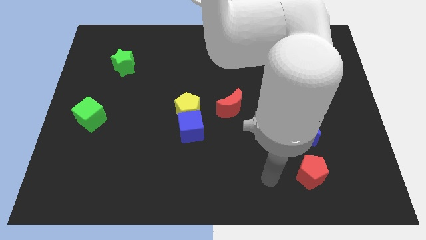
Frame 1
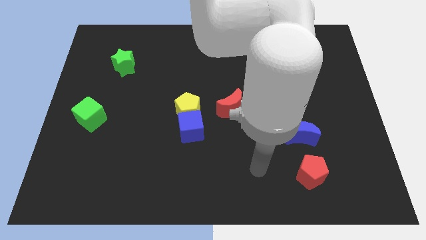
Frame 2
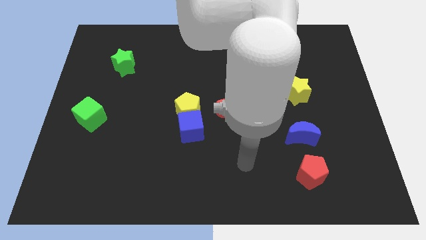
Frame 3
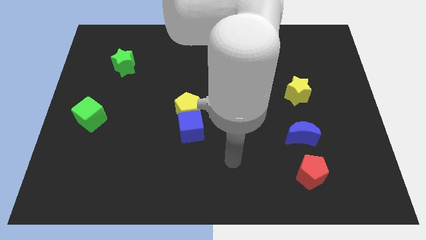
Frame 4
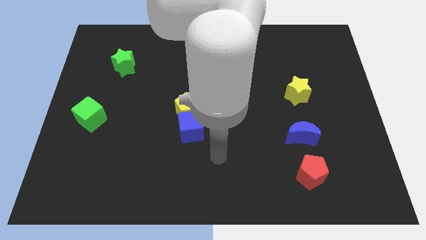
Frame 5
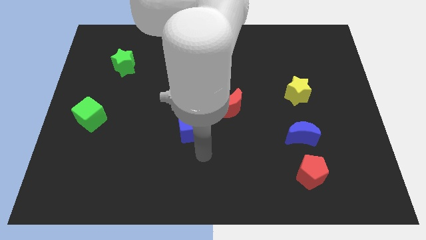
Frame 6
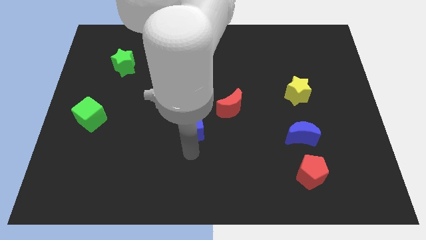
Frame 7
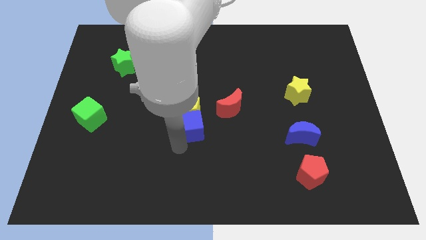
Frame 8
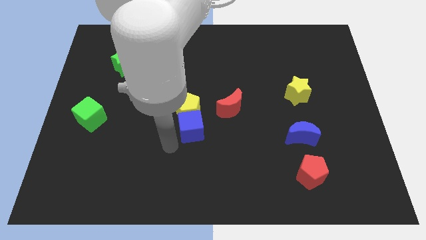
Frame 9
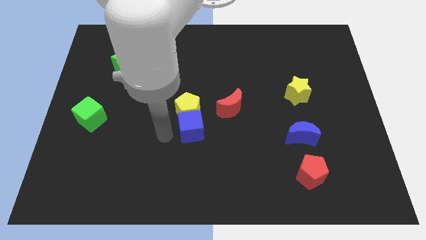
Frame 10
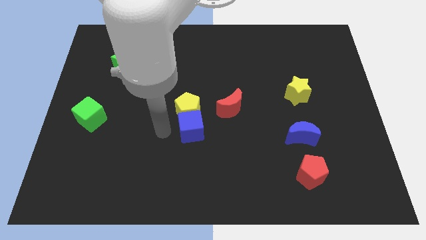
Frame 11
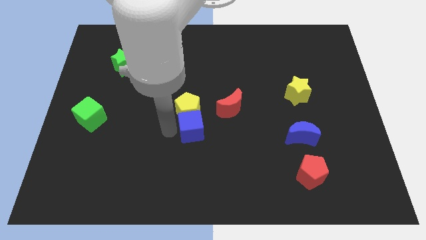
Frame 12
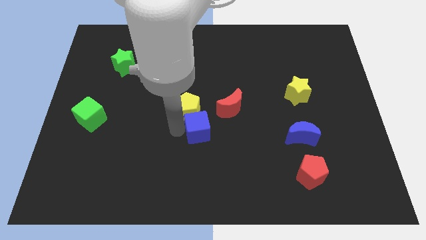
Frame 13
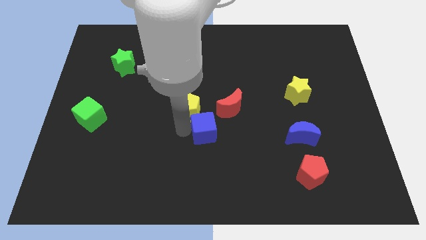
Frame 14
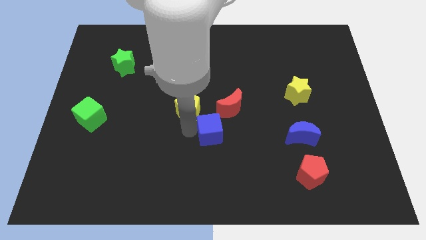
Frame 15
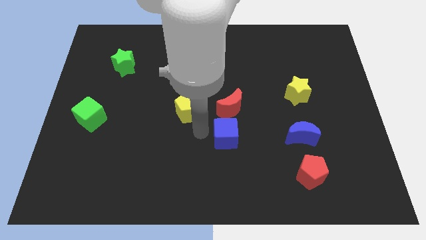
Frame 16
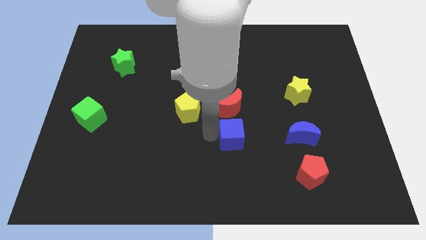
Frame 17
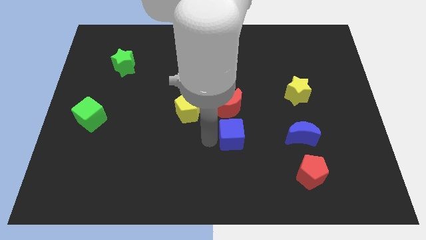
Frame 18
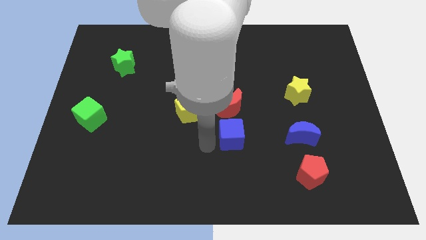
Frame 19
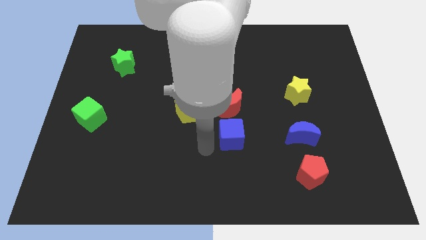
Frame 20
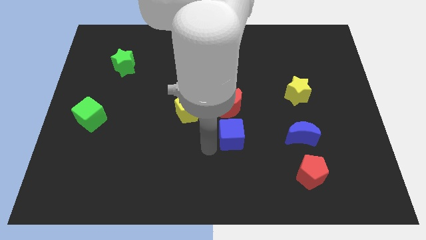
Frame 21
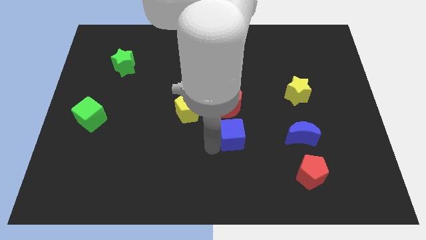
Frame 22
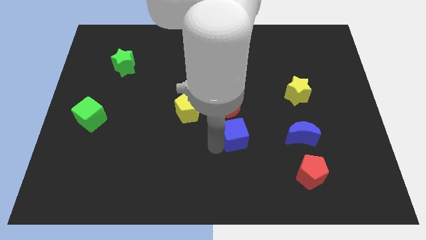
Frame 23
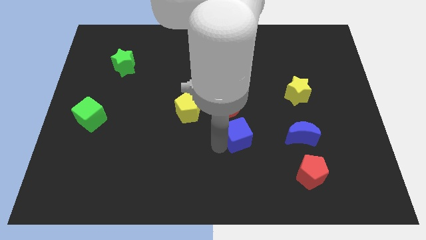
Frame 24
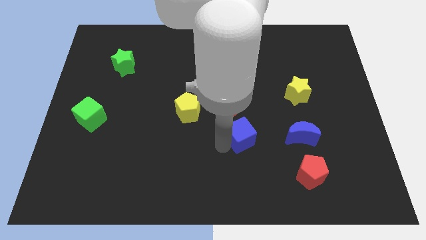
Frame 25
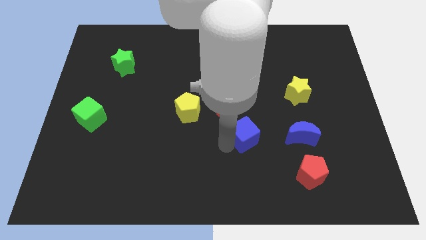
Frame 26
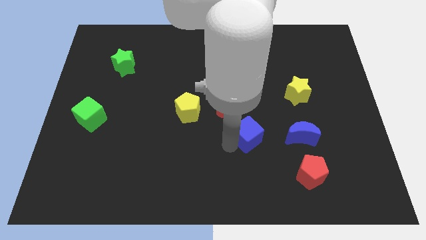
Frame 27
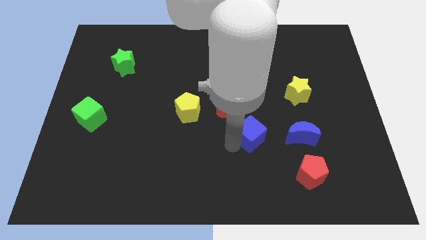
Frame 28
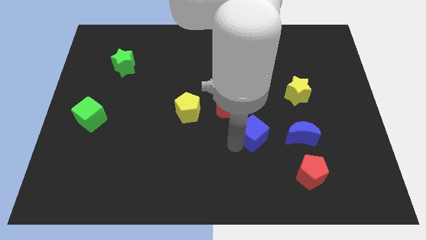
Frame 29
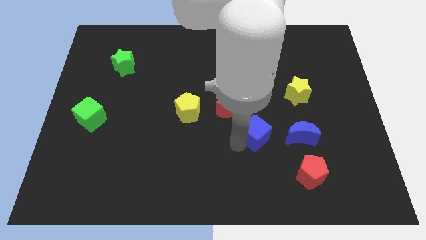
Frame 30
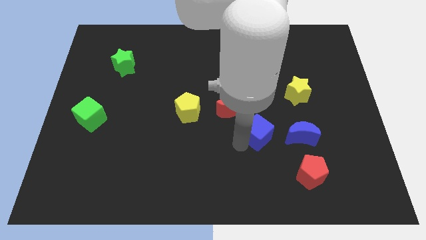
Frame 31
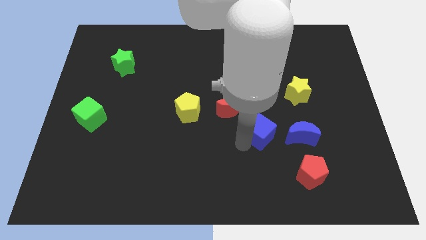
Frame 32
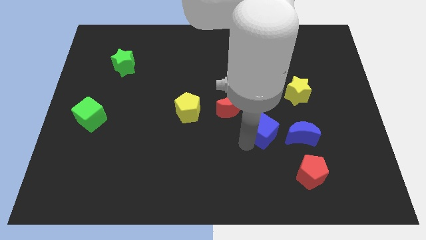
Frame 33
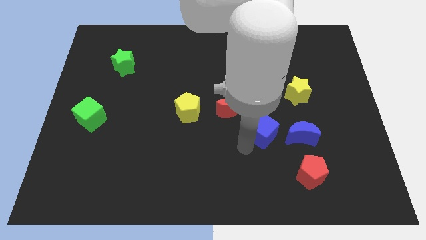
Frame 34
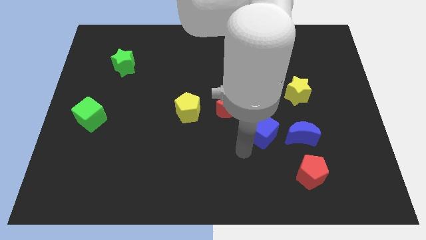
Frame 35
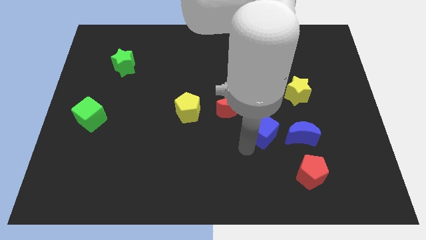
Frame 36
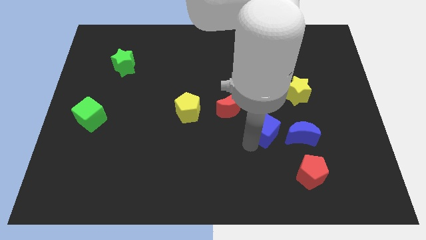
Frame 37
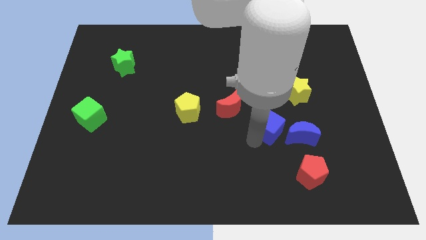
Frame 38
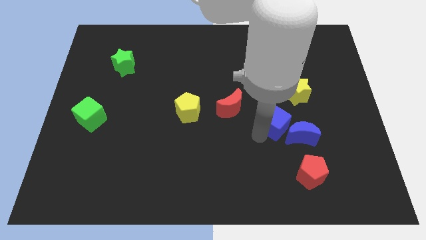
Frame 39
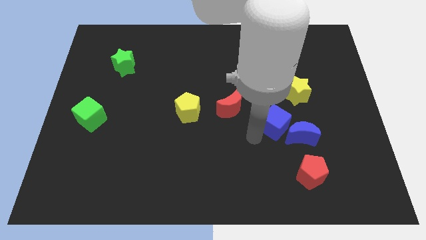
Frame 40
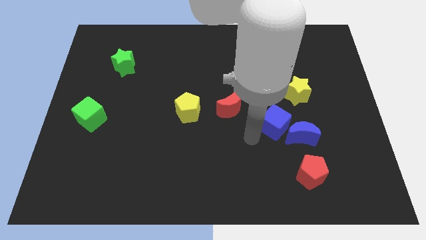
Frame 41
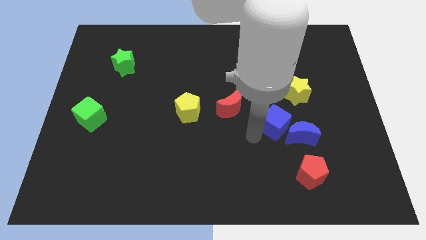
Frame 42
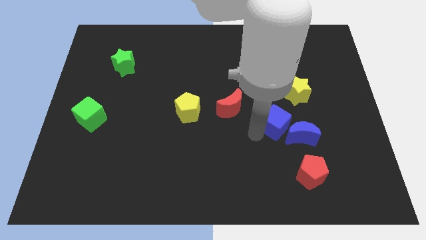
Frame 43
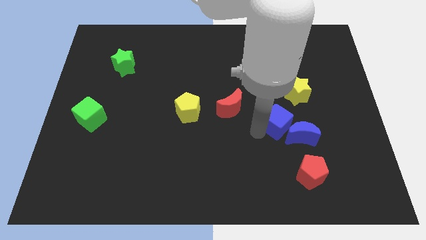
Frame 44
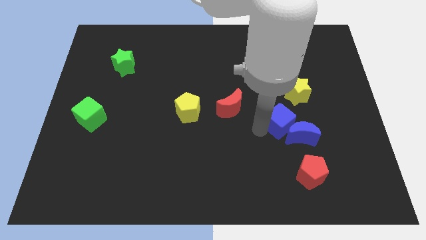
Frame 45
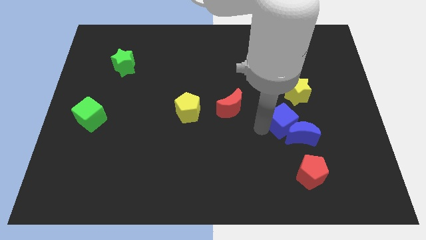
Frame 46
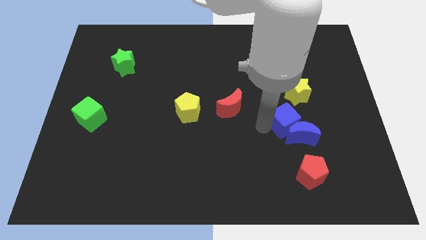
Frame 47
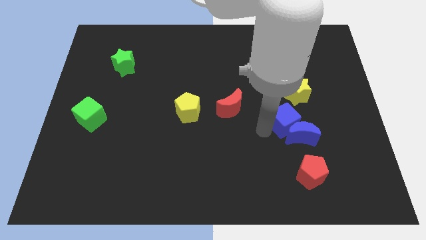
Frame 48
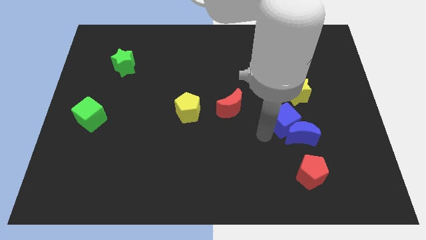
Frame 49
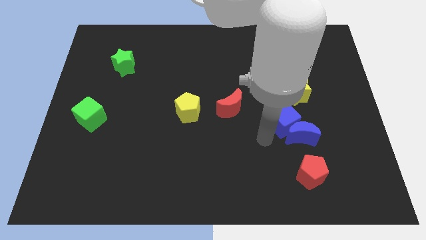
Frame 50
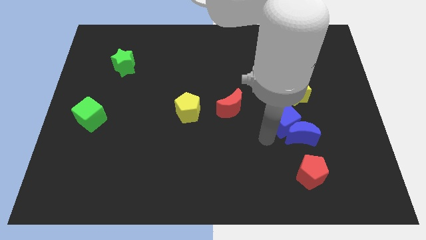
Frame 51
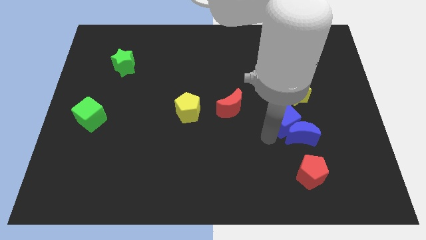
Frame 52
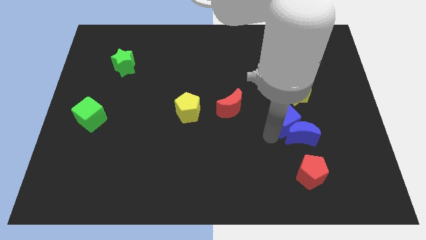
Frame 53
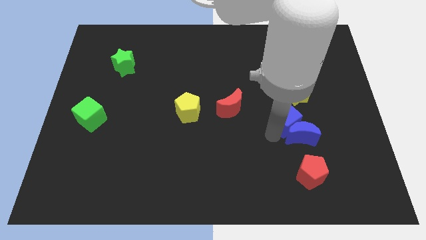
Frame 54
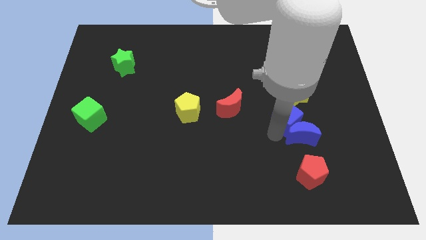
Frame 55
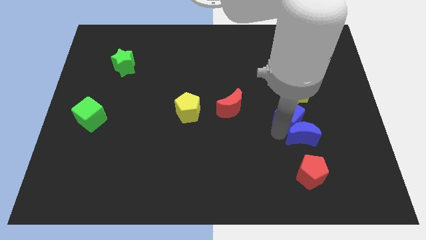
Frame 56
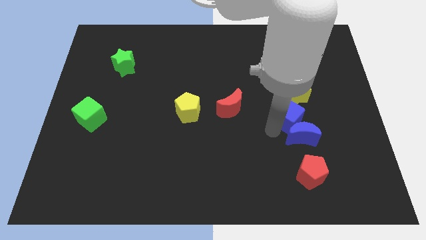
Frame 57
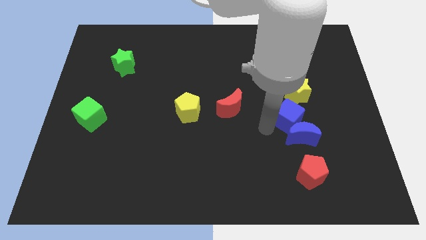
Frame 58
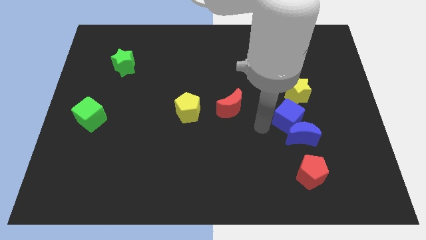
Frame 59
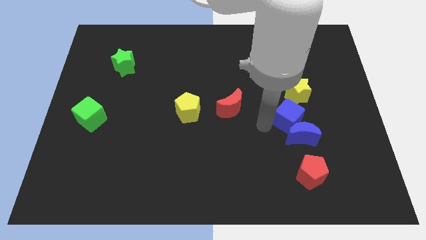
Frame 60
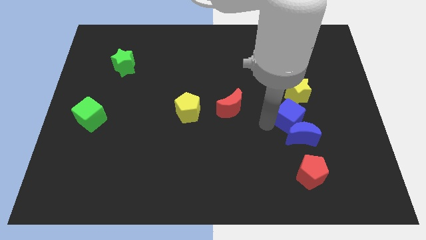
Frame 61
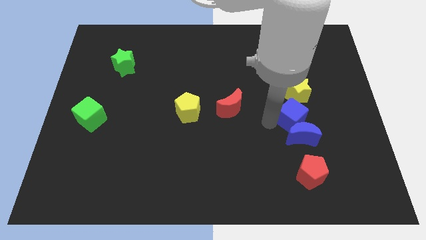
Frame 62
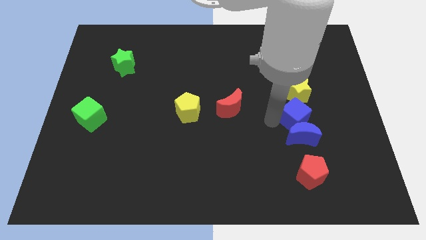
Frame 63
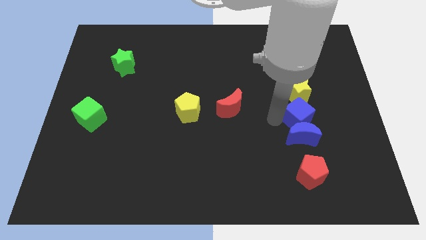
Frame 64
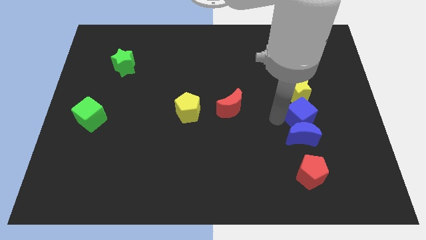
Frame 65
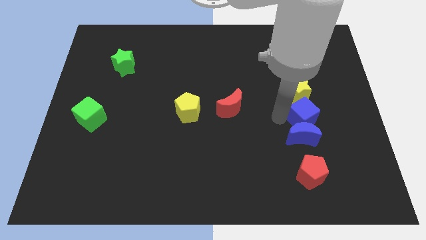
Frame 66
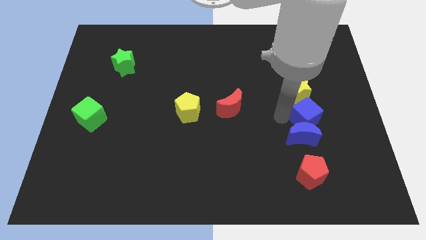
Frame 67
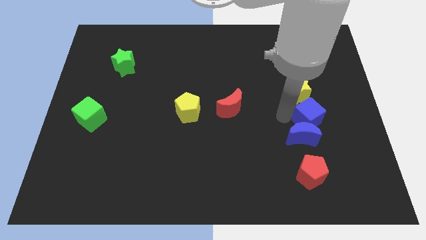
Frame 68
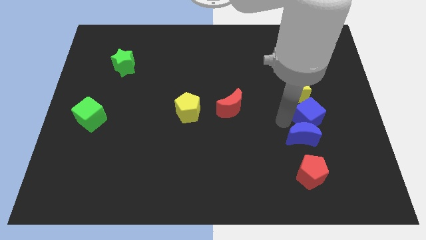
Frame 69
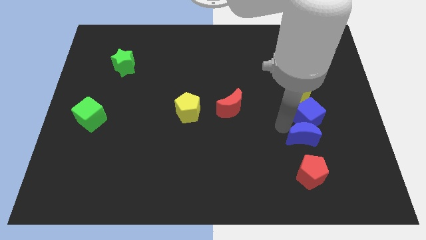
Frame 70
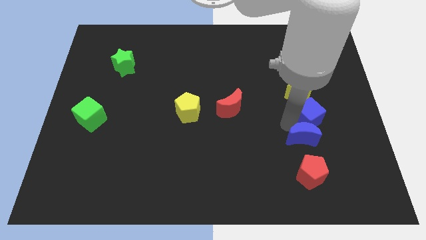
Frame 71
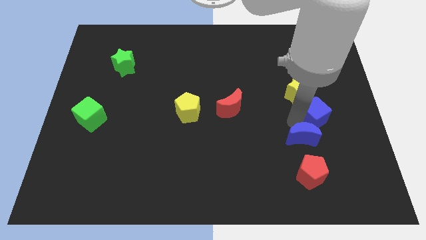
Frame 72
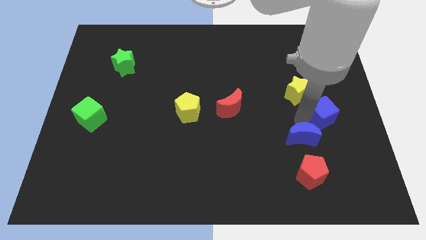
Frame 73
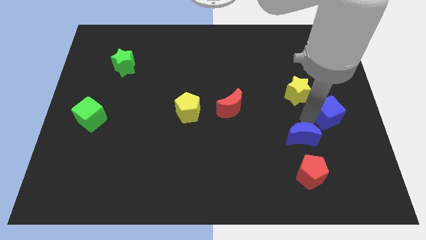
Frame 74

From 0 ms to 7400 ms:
move the blue cube to the right side of the board
